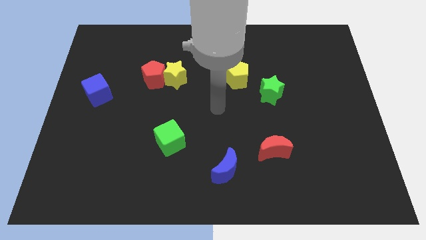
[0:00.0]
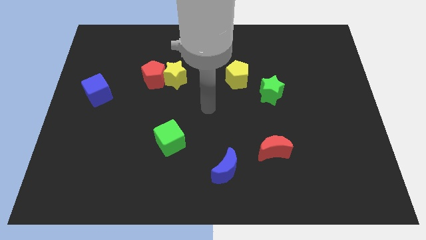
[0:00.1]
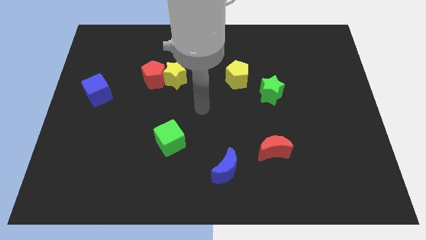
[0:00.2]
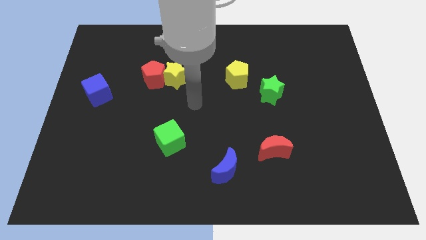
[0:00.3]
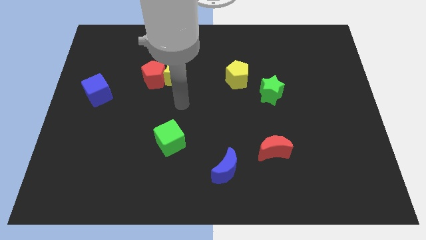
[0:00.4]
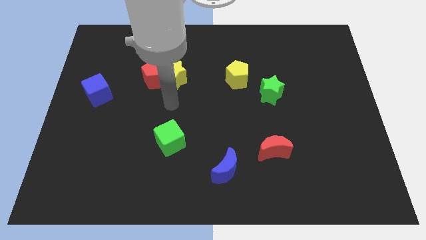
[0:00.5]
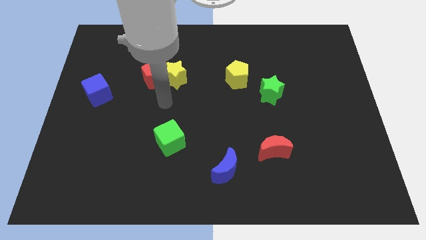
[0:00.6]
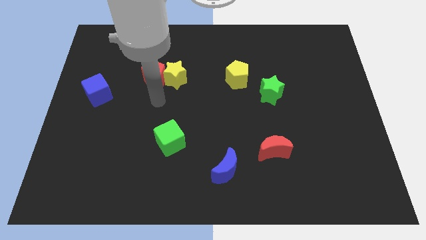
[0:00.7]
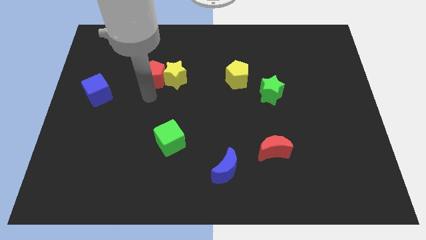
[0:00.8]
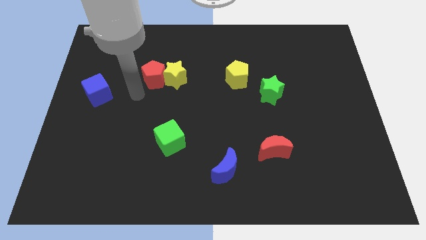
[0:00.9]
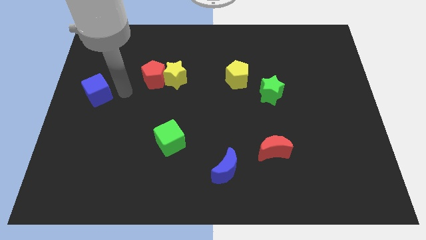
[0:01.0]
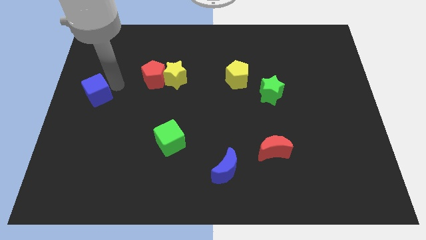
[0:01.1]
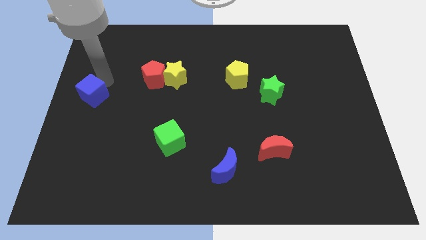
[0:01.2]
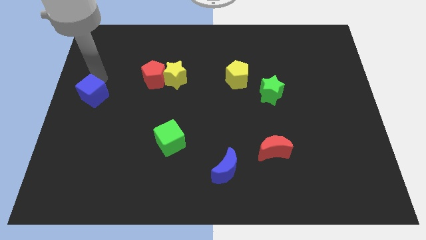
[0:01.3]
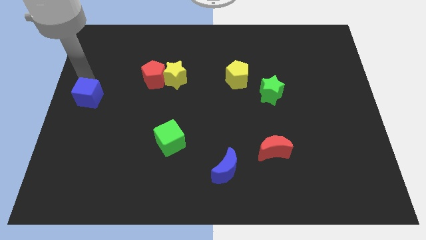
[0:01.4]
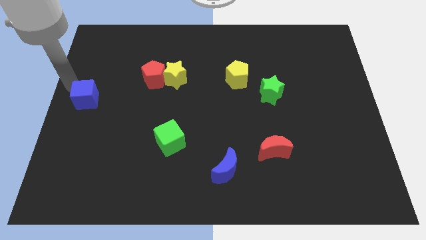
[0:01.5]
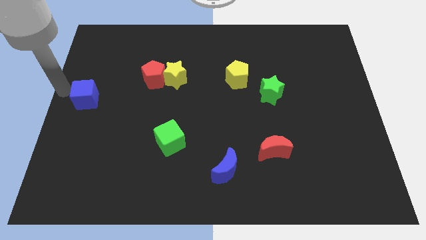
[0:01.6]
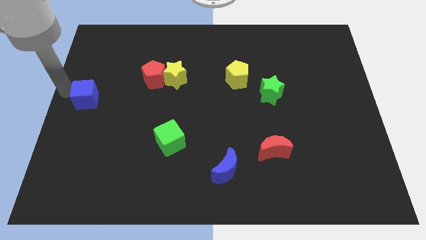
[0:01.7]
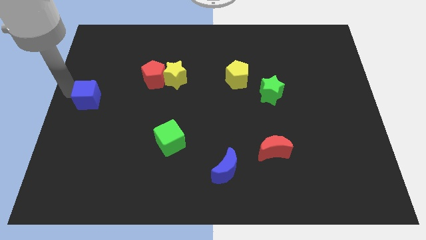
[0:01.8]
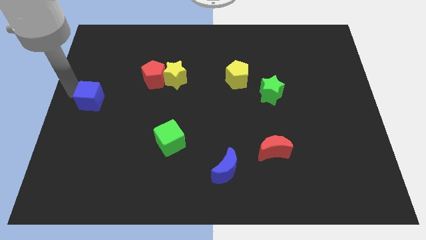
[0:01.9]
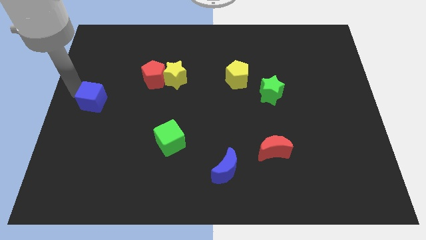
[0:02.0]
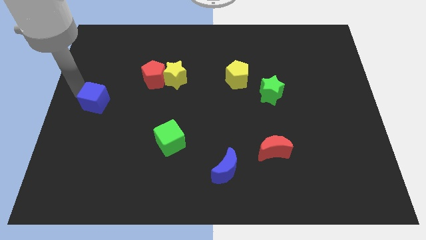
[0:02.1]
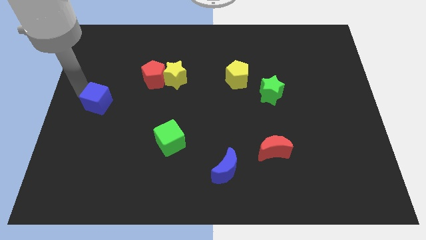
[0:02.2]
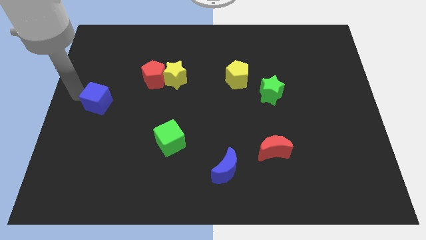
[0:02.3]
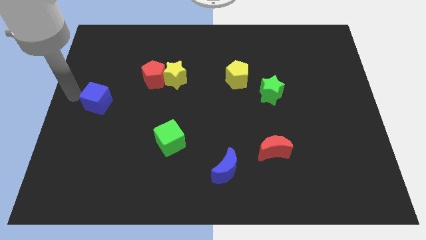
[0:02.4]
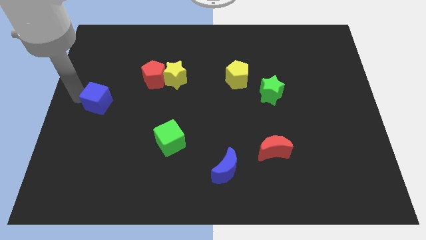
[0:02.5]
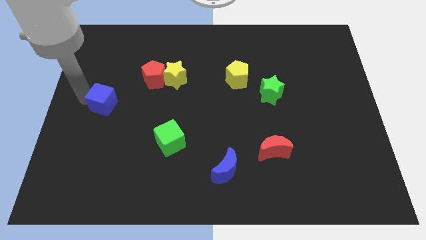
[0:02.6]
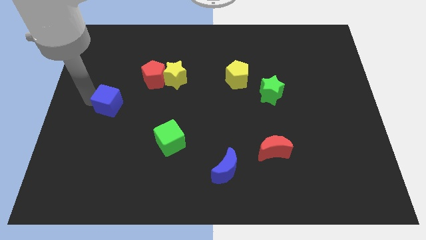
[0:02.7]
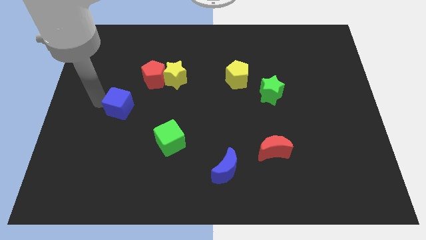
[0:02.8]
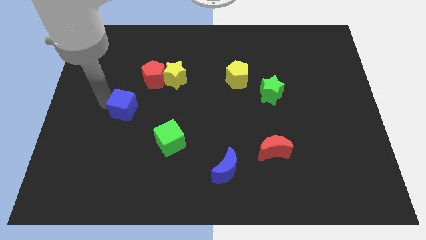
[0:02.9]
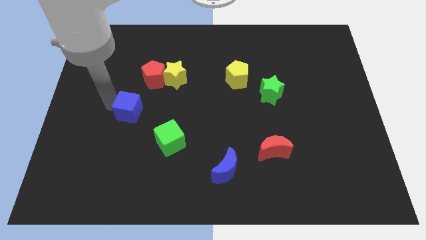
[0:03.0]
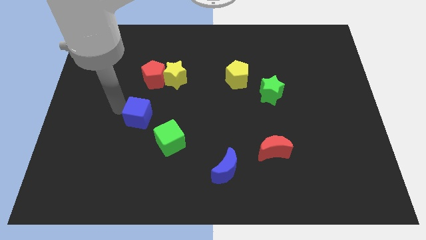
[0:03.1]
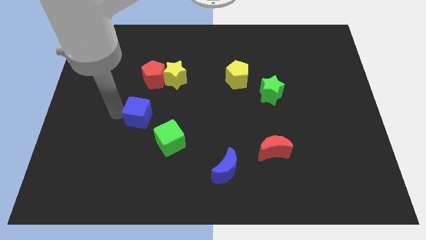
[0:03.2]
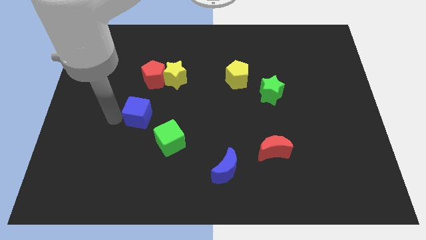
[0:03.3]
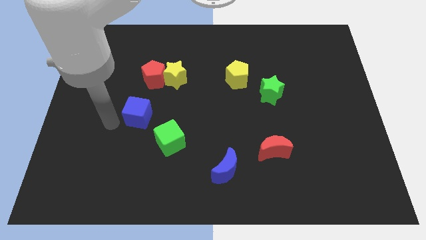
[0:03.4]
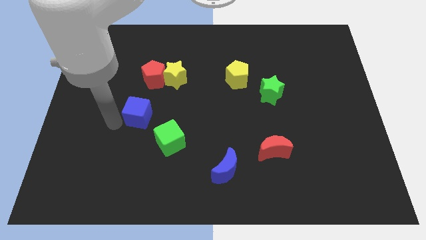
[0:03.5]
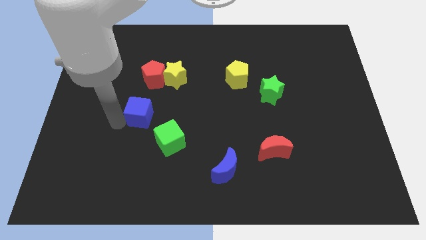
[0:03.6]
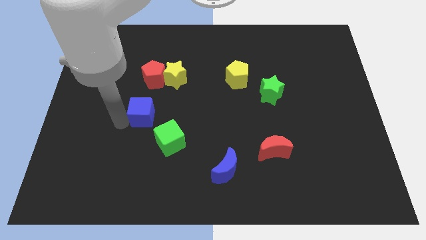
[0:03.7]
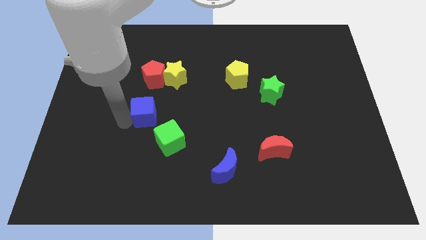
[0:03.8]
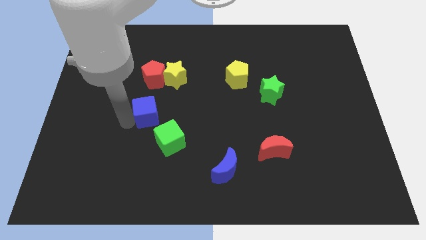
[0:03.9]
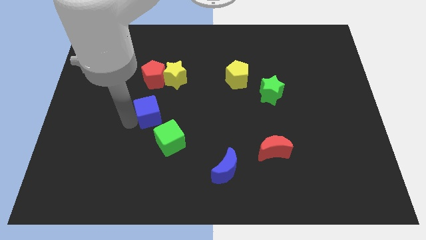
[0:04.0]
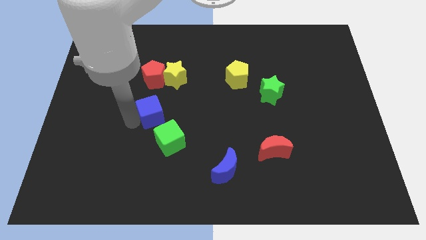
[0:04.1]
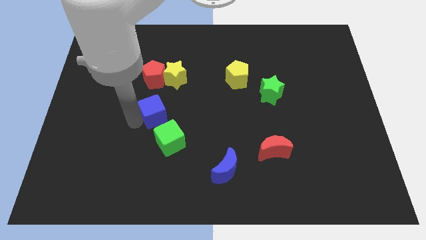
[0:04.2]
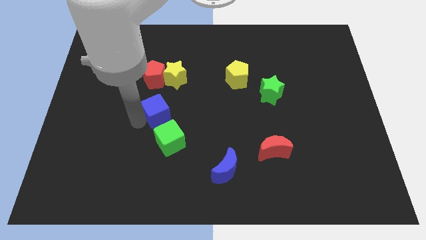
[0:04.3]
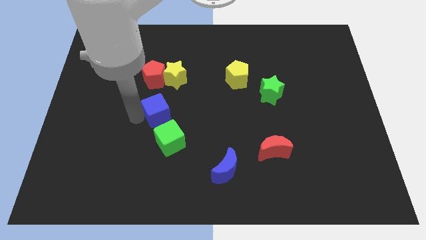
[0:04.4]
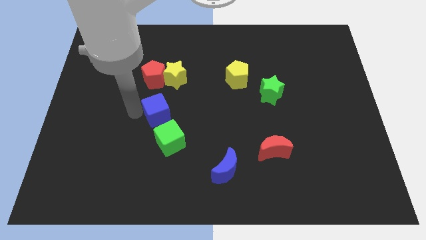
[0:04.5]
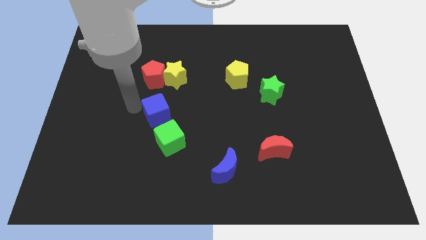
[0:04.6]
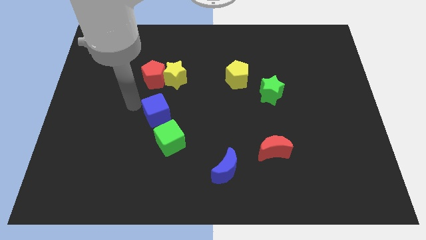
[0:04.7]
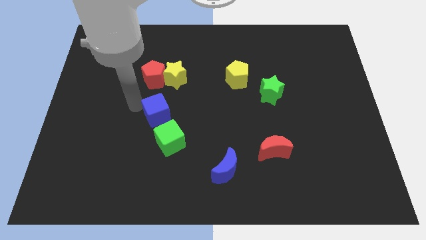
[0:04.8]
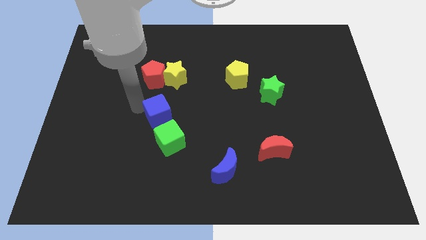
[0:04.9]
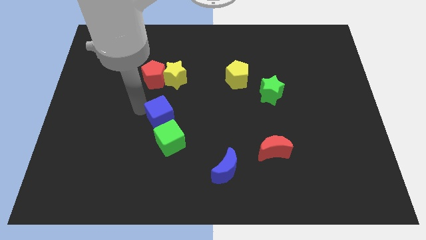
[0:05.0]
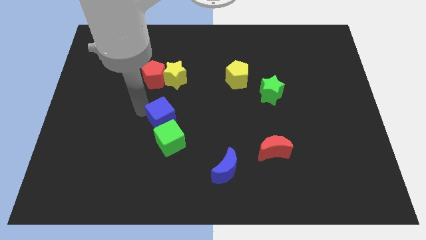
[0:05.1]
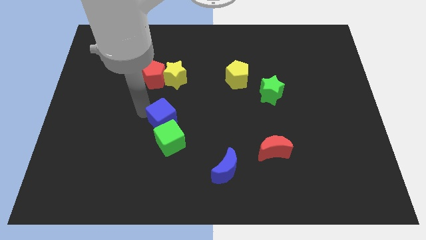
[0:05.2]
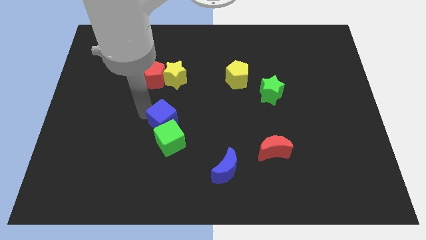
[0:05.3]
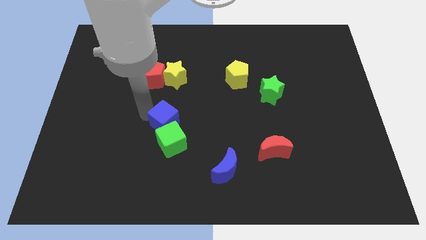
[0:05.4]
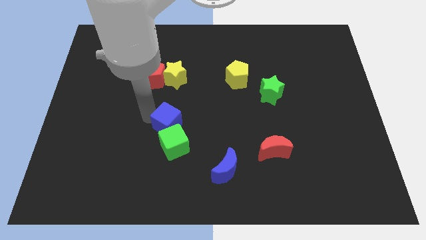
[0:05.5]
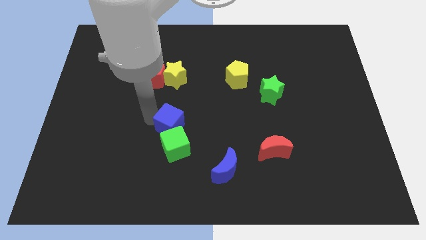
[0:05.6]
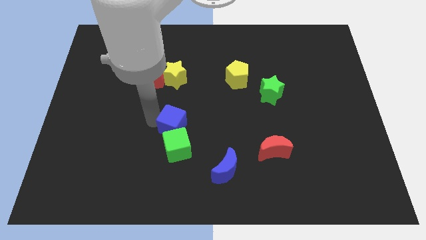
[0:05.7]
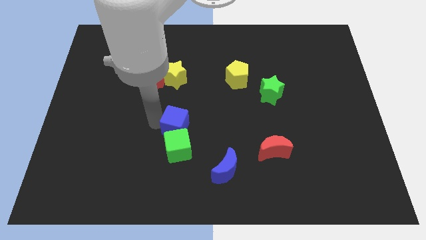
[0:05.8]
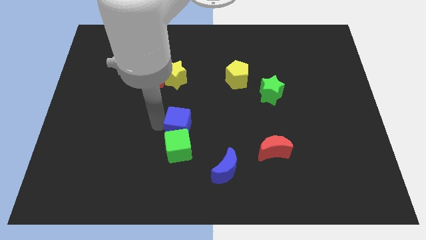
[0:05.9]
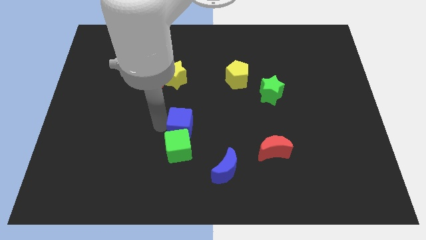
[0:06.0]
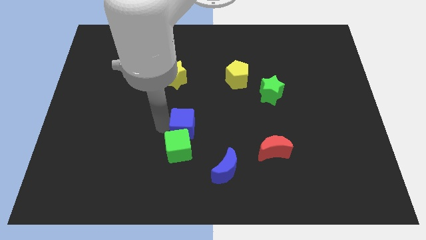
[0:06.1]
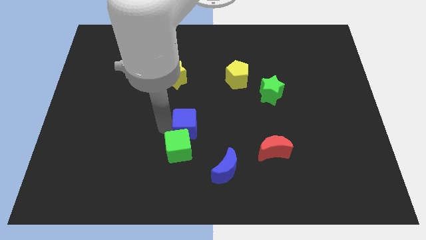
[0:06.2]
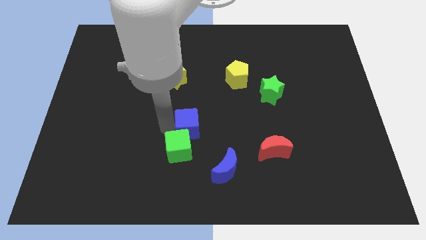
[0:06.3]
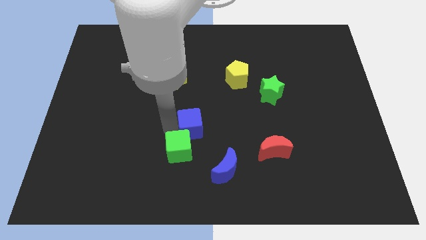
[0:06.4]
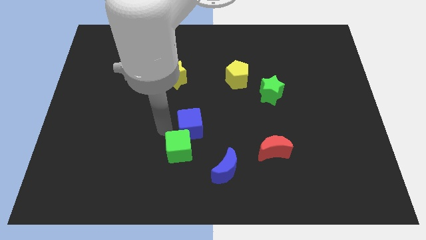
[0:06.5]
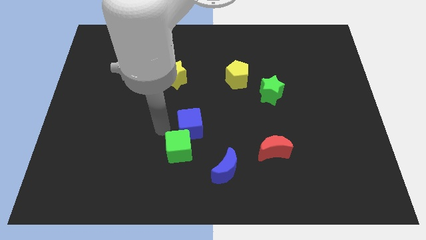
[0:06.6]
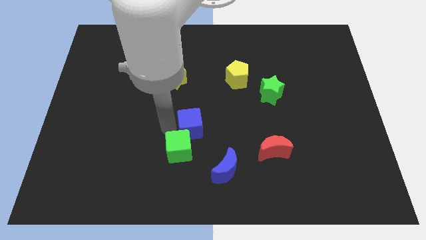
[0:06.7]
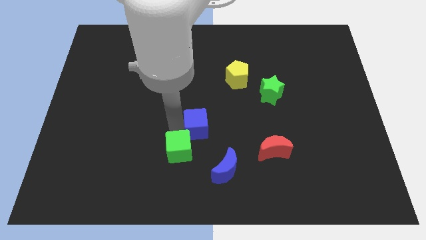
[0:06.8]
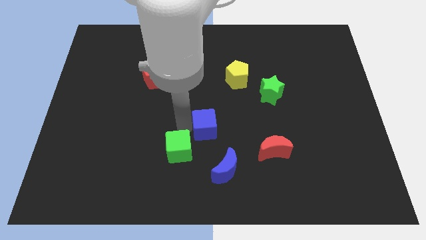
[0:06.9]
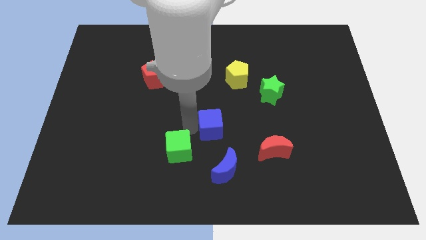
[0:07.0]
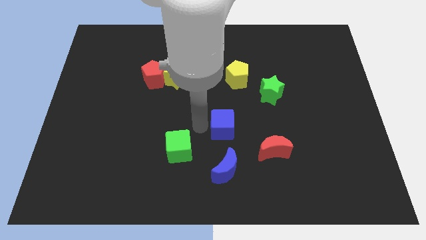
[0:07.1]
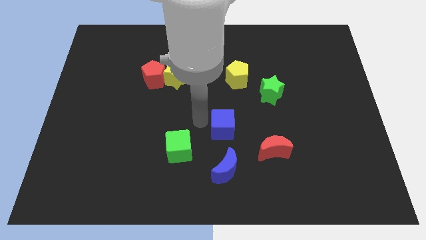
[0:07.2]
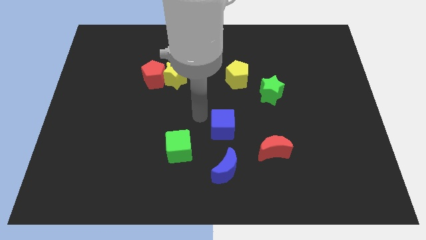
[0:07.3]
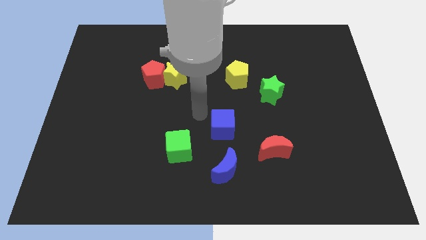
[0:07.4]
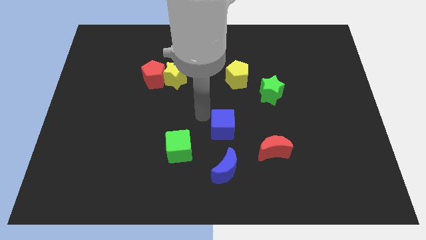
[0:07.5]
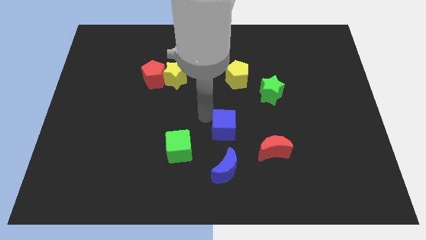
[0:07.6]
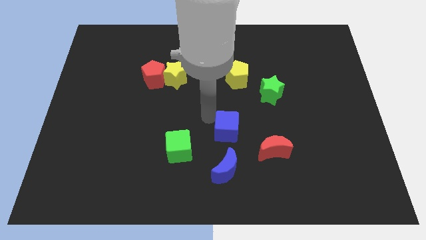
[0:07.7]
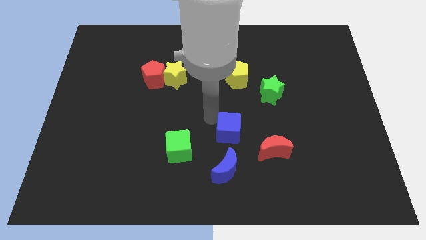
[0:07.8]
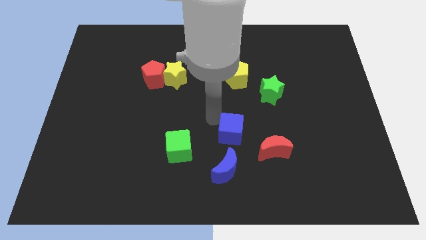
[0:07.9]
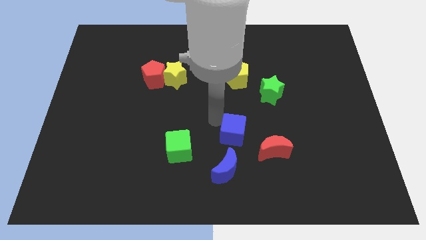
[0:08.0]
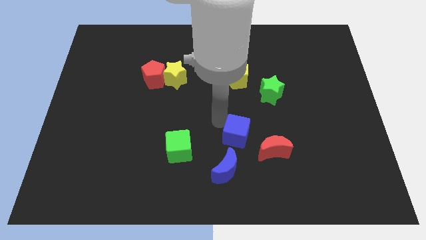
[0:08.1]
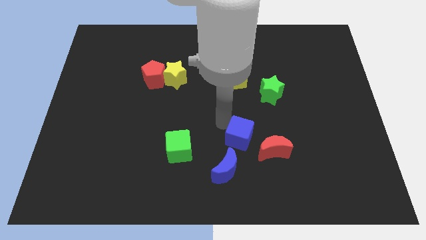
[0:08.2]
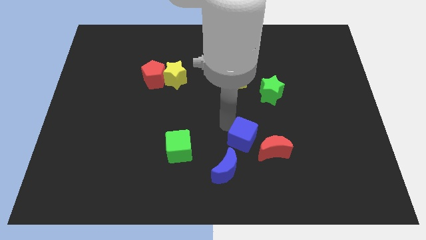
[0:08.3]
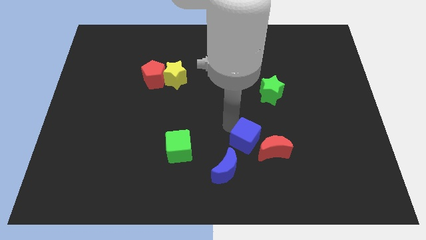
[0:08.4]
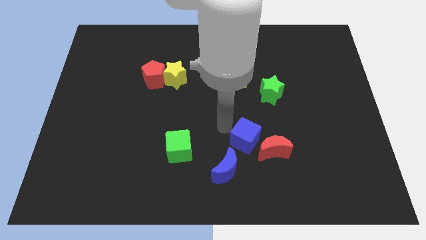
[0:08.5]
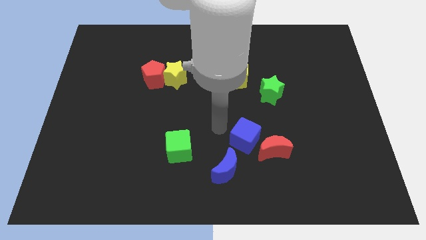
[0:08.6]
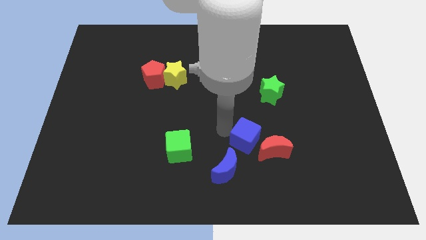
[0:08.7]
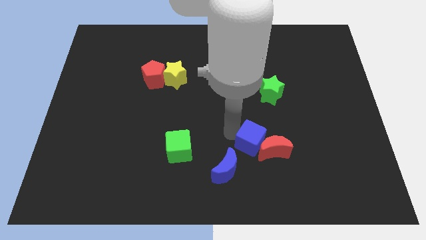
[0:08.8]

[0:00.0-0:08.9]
put the blue cube close to the red moon
